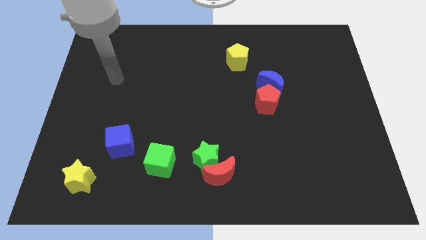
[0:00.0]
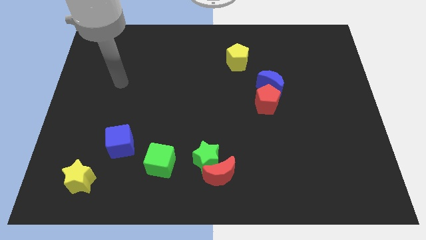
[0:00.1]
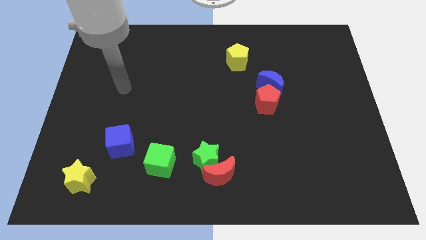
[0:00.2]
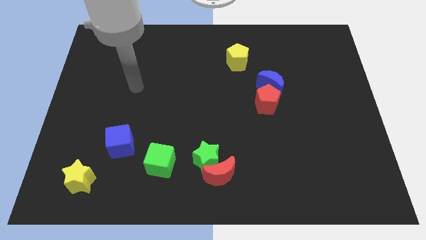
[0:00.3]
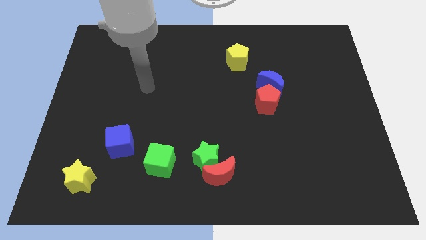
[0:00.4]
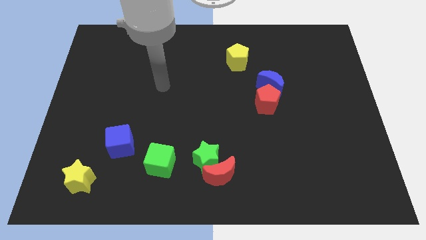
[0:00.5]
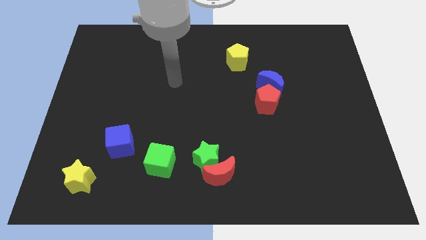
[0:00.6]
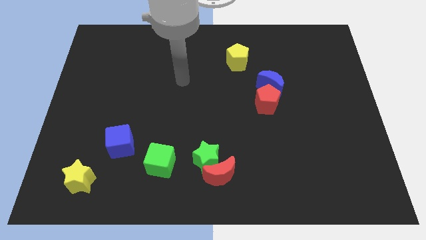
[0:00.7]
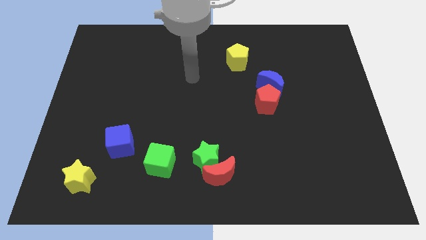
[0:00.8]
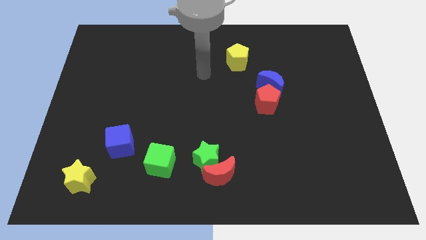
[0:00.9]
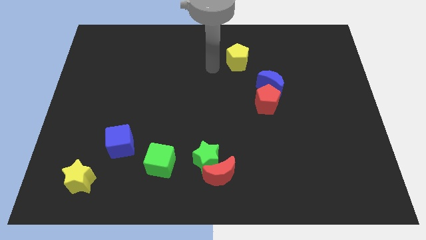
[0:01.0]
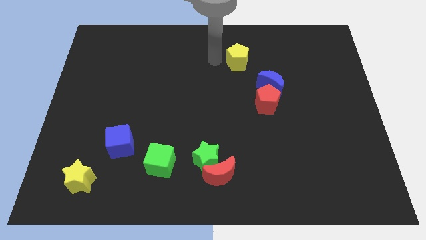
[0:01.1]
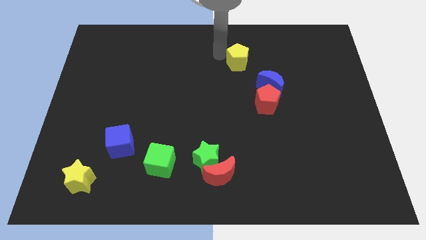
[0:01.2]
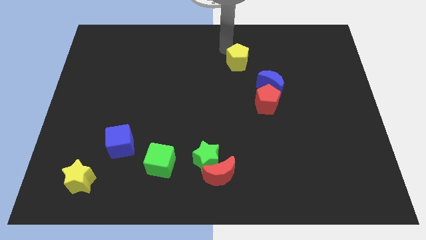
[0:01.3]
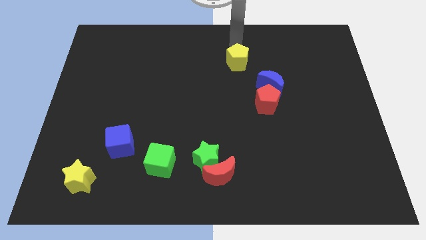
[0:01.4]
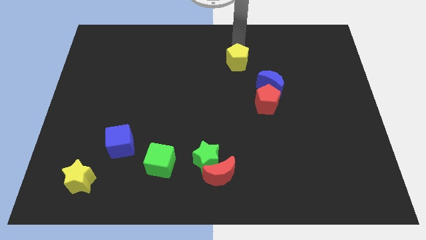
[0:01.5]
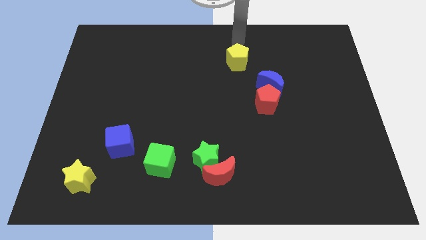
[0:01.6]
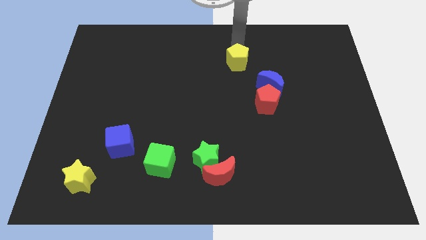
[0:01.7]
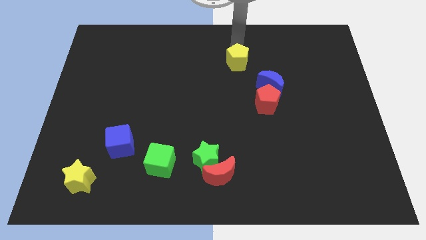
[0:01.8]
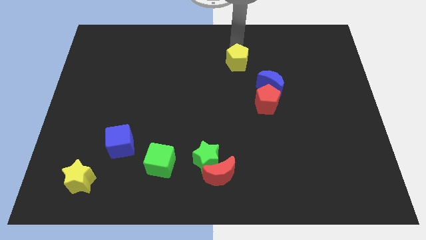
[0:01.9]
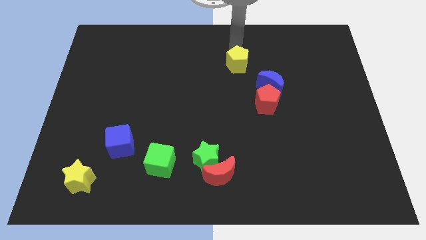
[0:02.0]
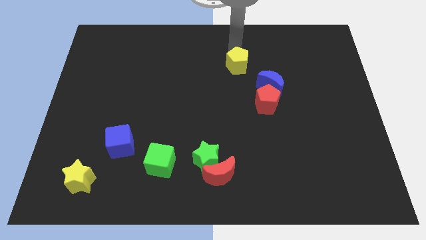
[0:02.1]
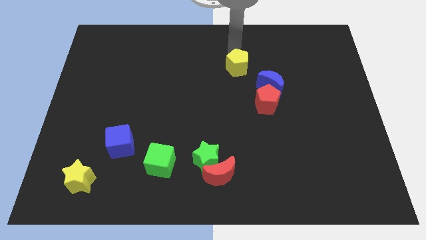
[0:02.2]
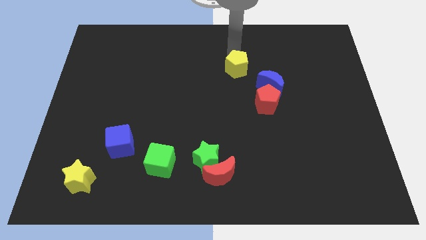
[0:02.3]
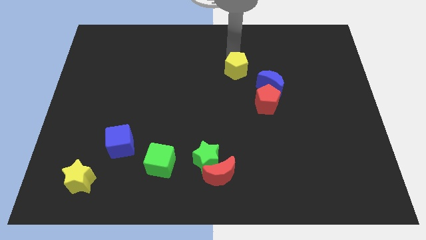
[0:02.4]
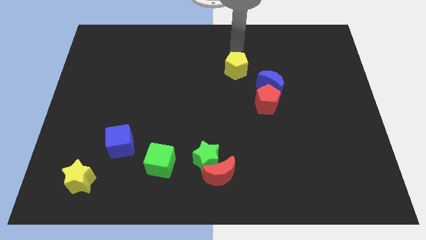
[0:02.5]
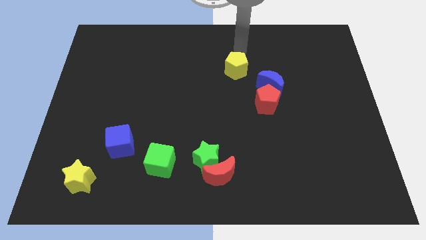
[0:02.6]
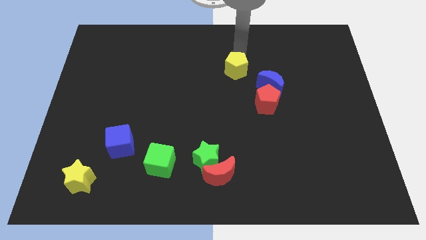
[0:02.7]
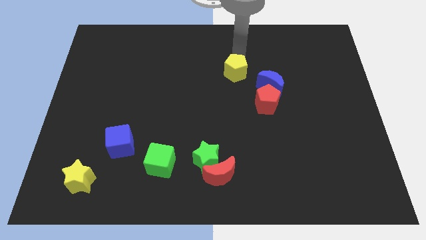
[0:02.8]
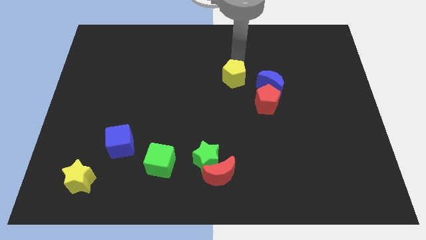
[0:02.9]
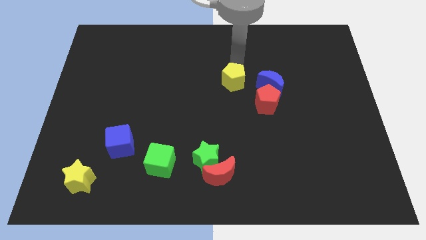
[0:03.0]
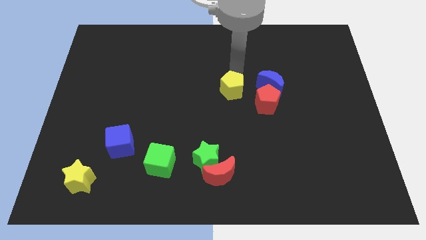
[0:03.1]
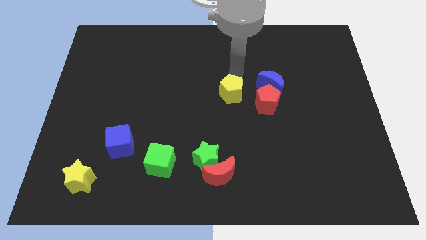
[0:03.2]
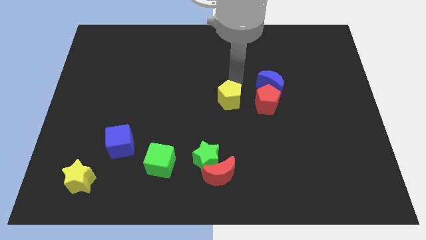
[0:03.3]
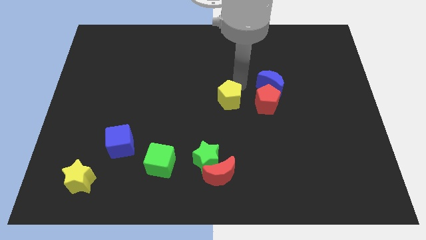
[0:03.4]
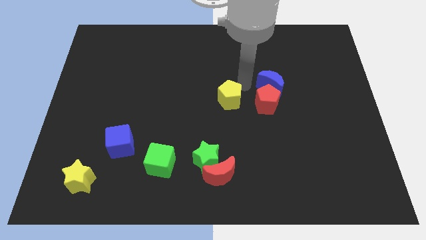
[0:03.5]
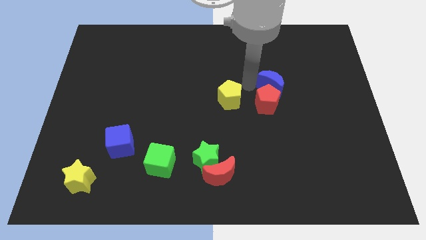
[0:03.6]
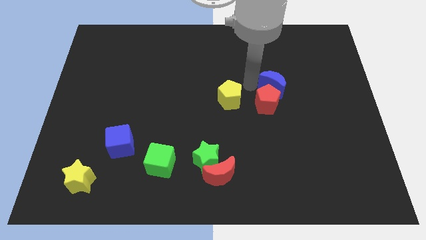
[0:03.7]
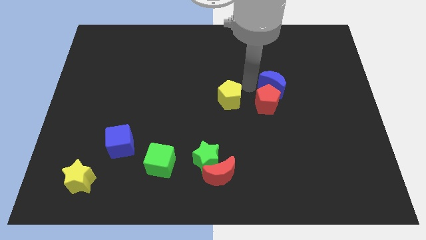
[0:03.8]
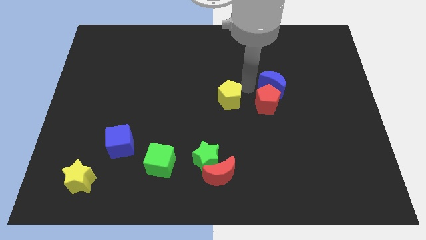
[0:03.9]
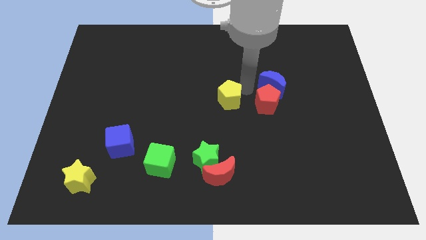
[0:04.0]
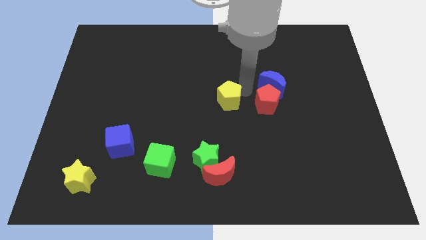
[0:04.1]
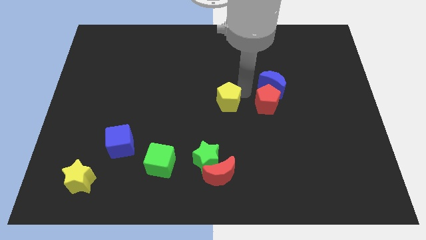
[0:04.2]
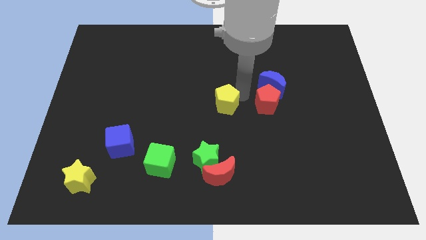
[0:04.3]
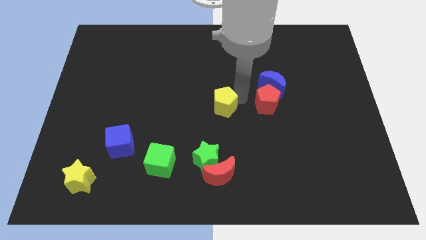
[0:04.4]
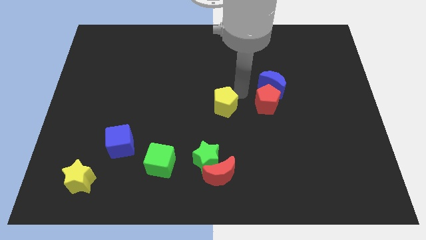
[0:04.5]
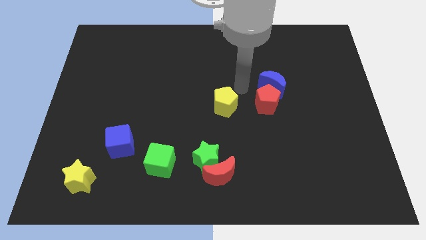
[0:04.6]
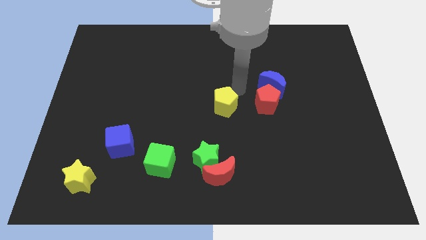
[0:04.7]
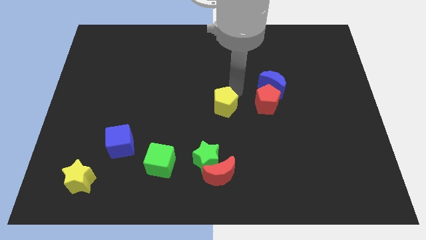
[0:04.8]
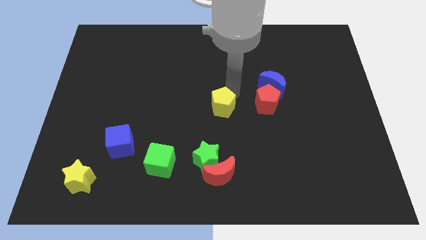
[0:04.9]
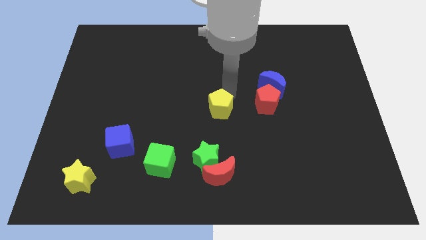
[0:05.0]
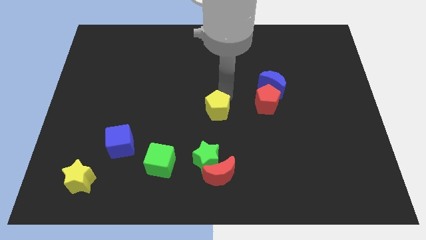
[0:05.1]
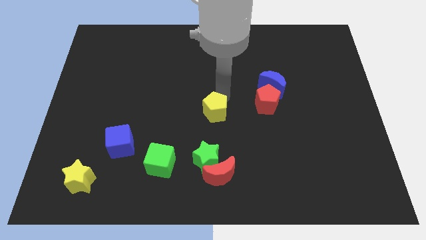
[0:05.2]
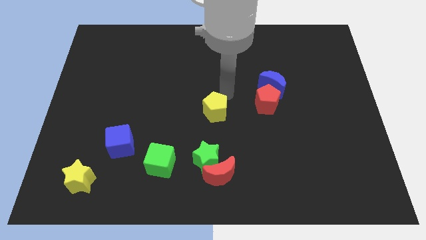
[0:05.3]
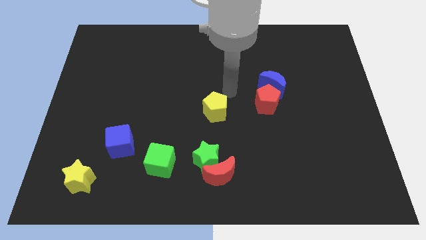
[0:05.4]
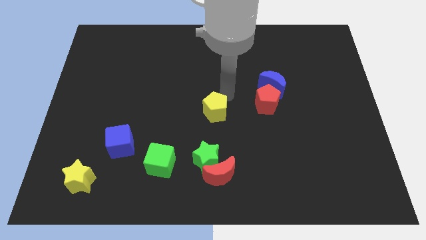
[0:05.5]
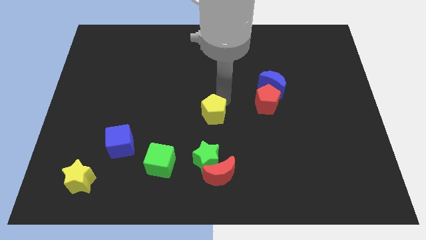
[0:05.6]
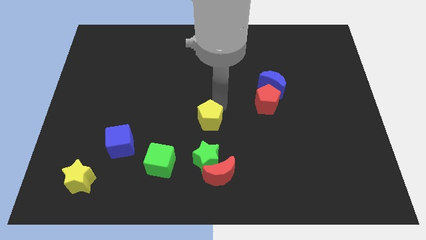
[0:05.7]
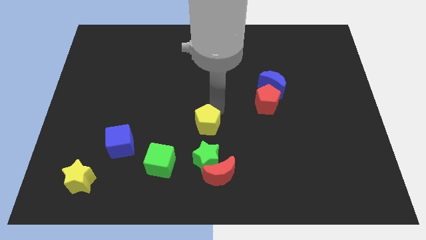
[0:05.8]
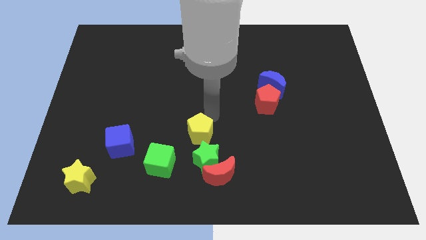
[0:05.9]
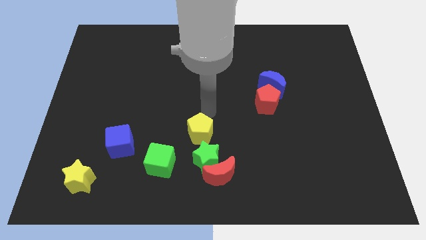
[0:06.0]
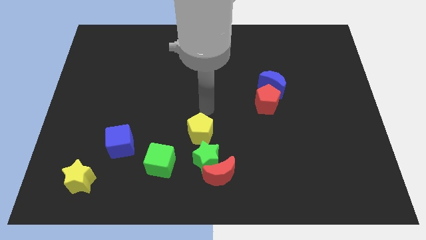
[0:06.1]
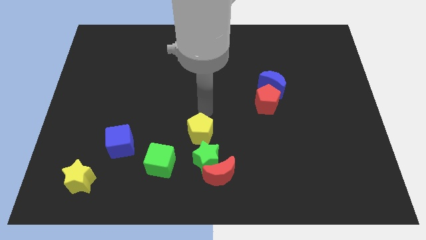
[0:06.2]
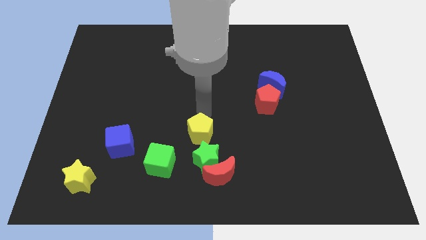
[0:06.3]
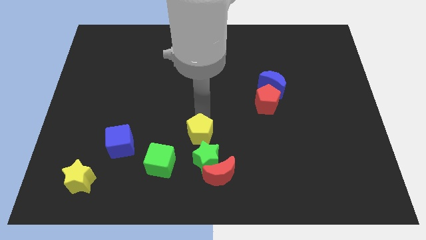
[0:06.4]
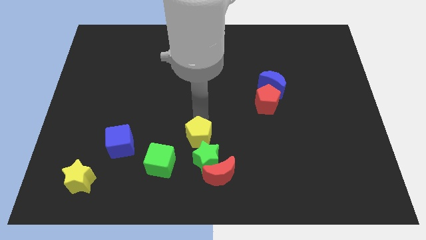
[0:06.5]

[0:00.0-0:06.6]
push the yellow pentagon to the top left side of the red moon

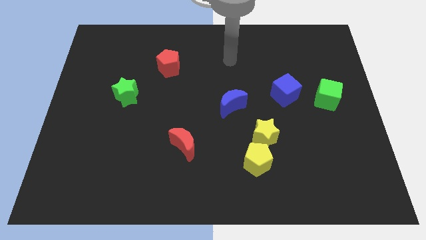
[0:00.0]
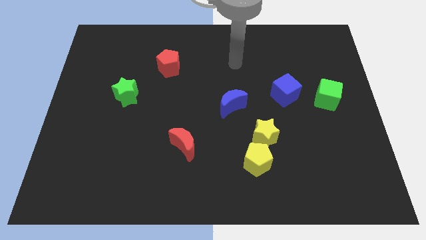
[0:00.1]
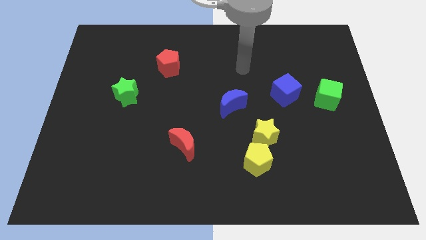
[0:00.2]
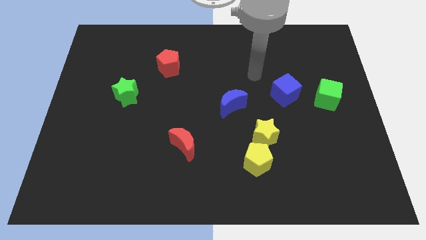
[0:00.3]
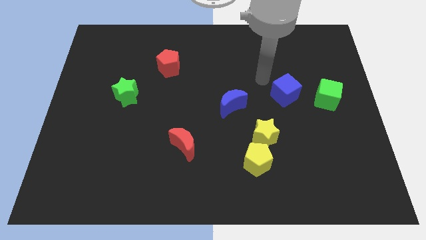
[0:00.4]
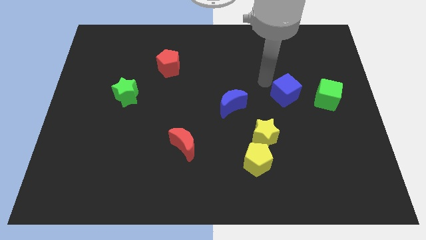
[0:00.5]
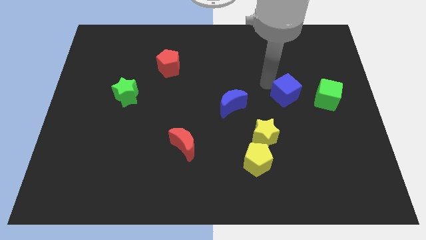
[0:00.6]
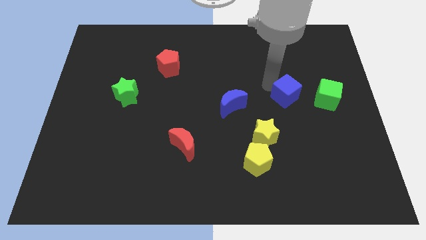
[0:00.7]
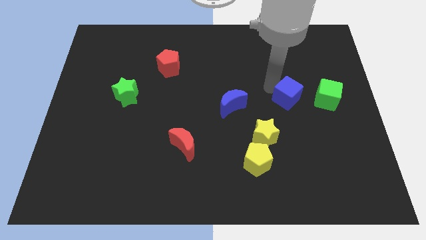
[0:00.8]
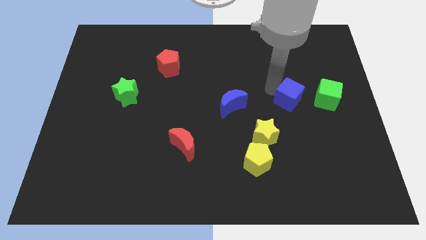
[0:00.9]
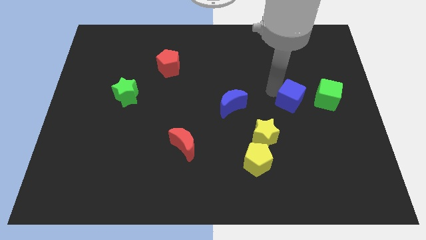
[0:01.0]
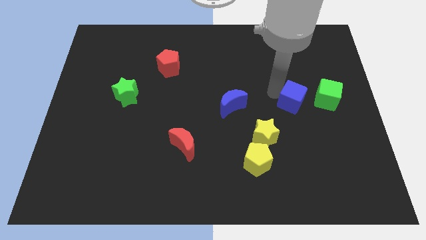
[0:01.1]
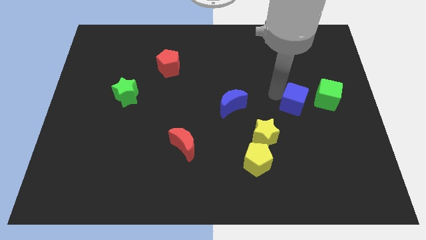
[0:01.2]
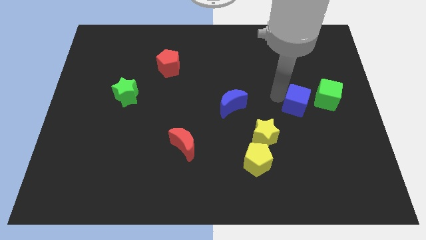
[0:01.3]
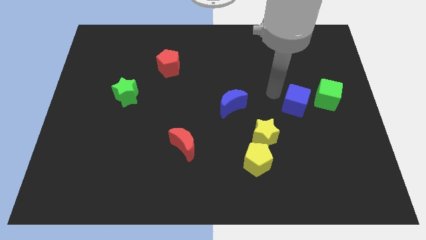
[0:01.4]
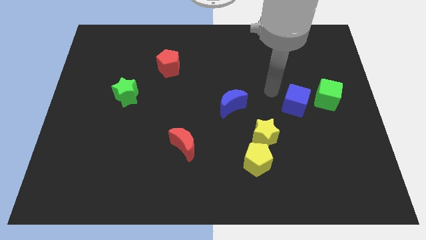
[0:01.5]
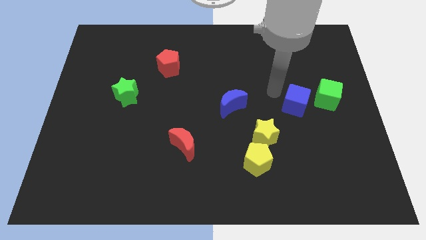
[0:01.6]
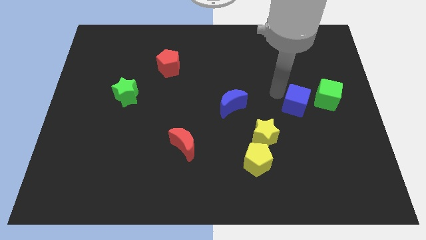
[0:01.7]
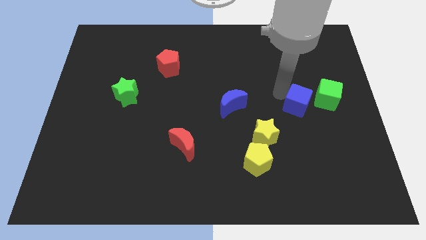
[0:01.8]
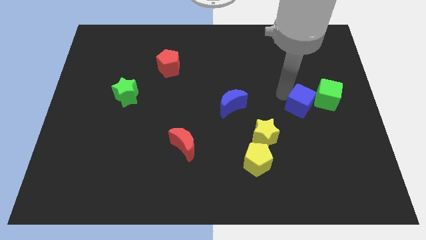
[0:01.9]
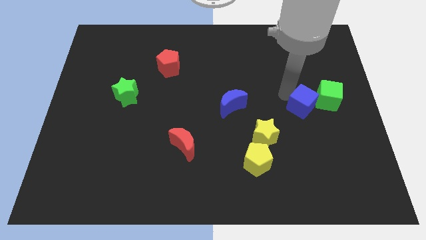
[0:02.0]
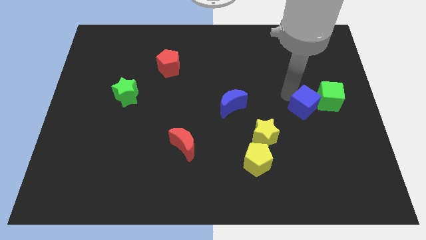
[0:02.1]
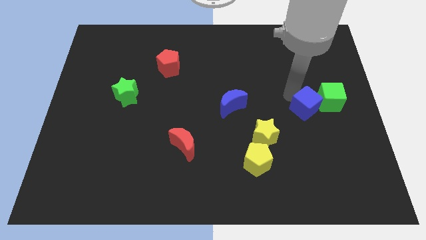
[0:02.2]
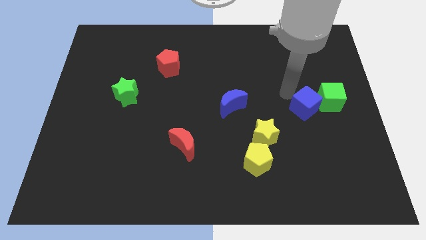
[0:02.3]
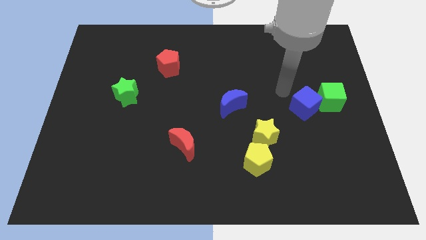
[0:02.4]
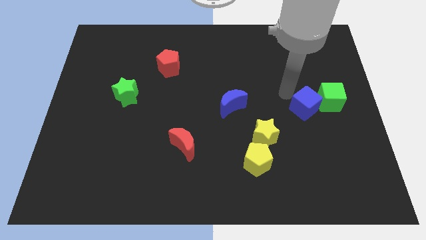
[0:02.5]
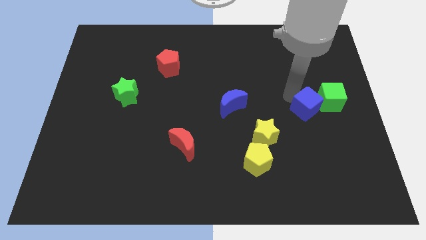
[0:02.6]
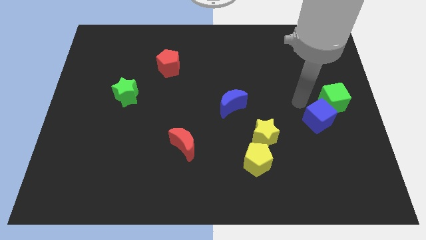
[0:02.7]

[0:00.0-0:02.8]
move the blue cube below the green cube
